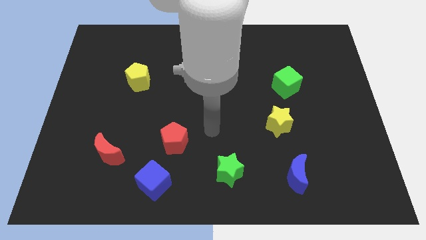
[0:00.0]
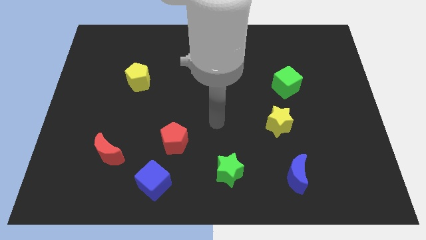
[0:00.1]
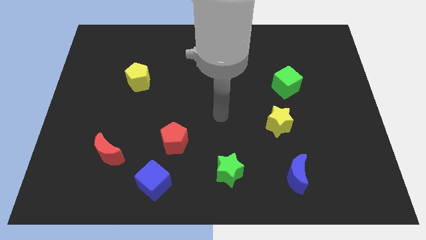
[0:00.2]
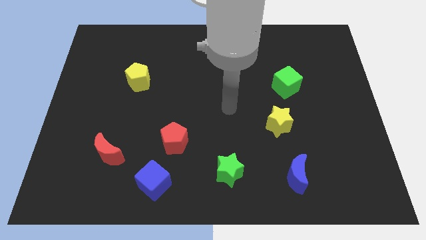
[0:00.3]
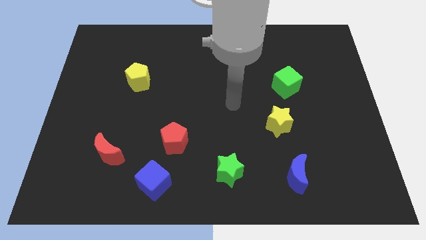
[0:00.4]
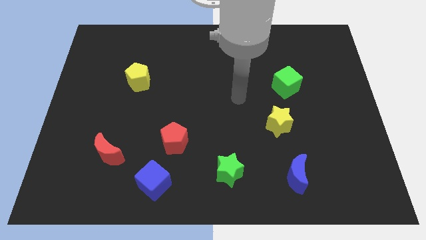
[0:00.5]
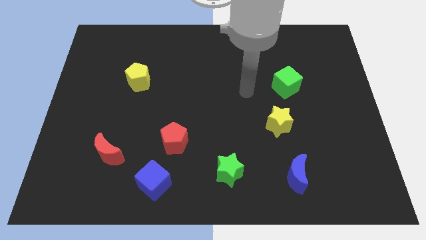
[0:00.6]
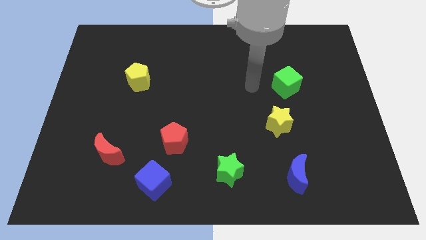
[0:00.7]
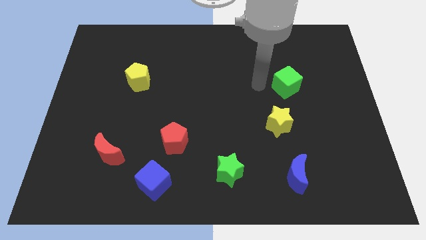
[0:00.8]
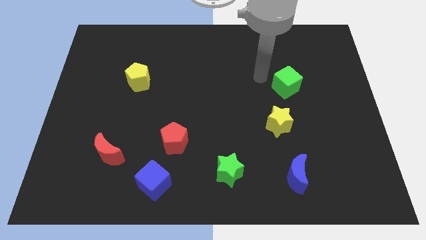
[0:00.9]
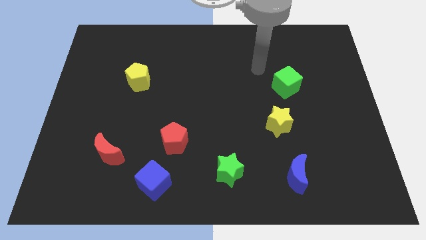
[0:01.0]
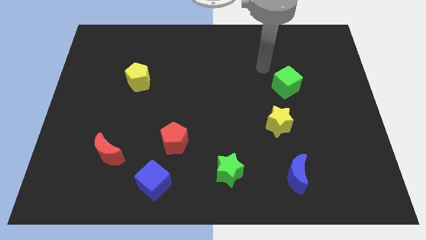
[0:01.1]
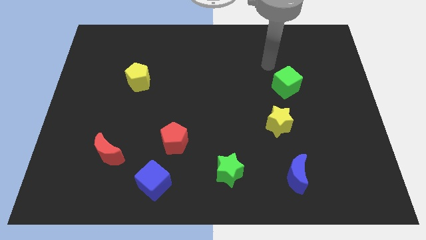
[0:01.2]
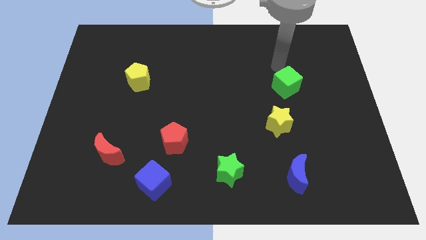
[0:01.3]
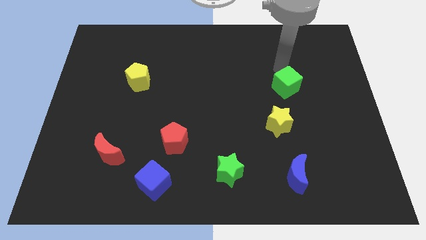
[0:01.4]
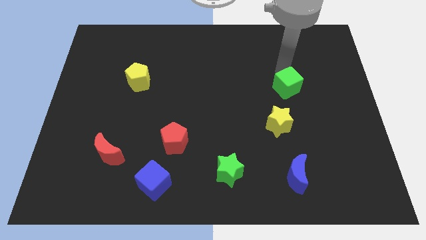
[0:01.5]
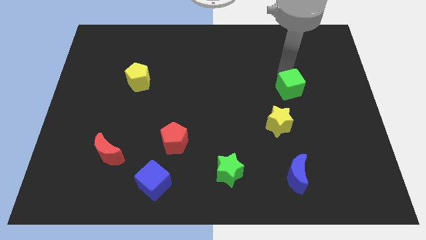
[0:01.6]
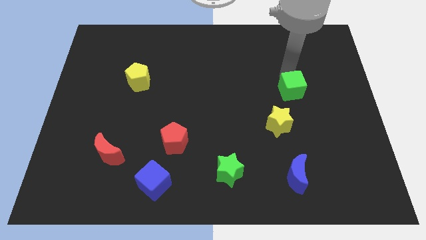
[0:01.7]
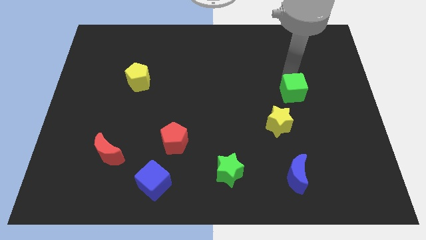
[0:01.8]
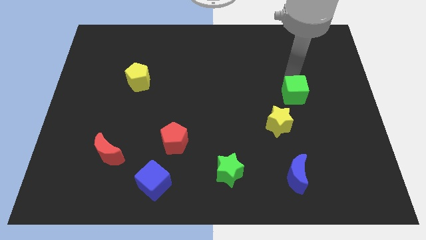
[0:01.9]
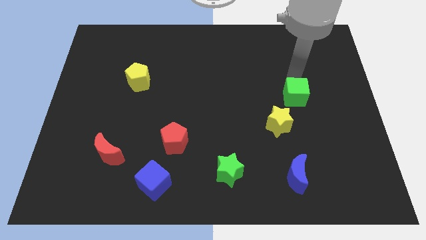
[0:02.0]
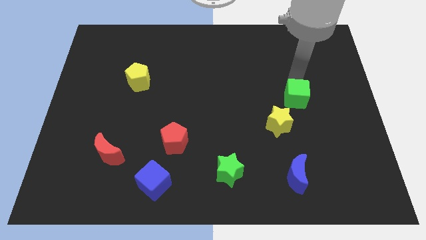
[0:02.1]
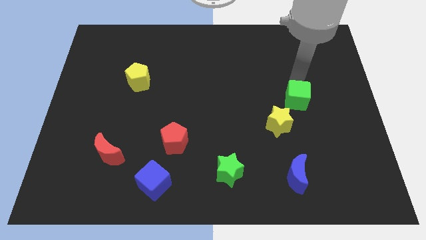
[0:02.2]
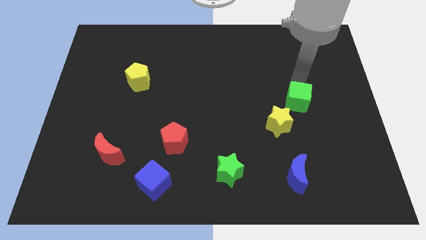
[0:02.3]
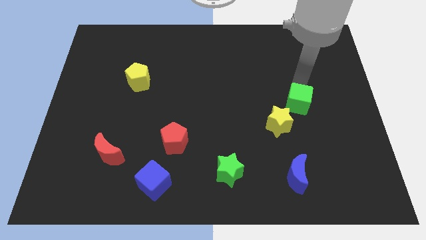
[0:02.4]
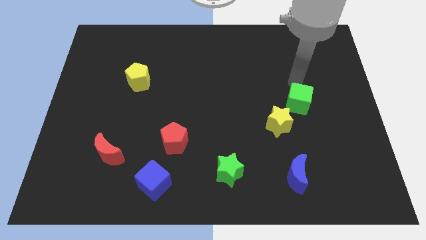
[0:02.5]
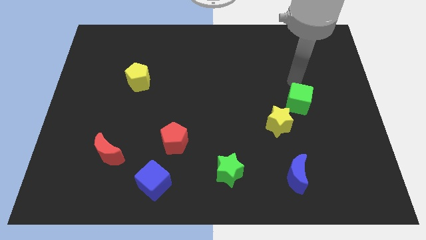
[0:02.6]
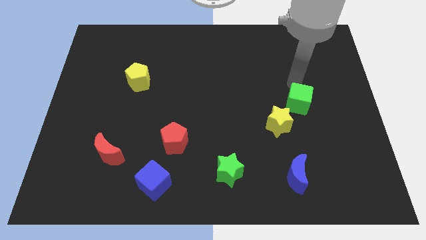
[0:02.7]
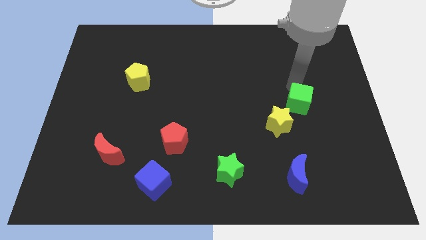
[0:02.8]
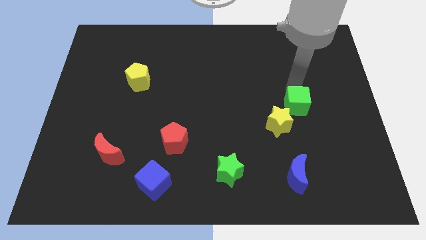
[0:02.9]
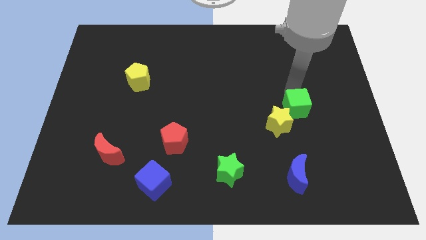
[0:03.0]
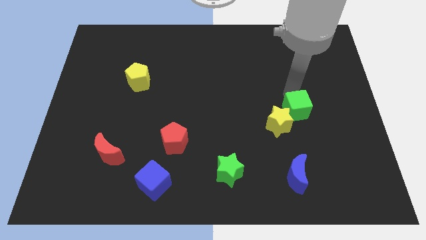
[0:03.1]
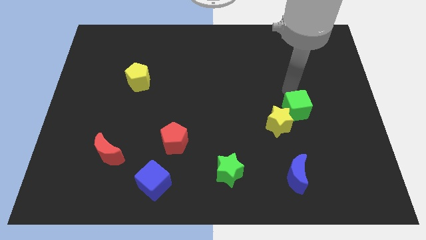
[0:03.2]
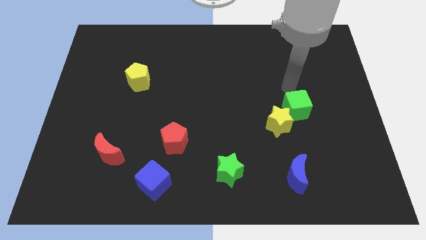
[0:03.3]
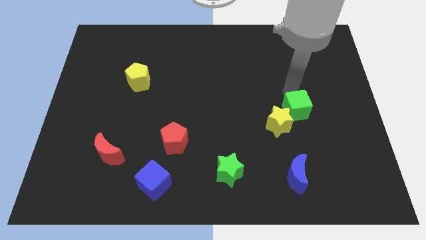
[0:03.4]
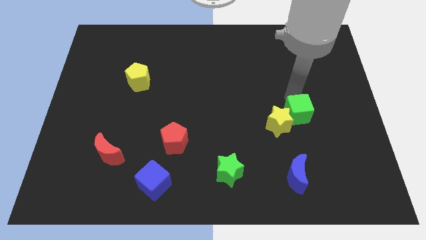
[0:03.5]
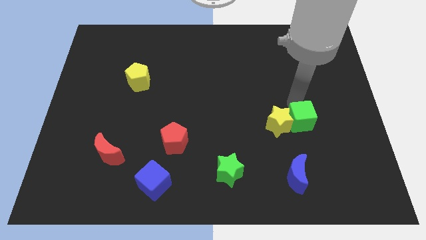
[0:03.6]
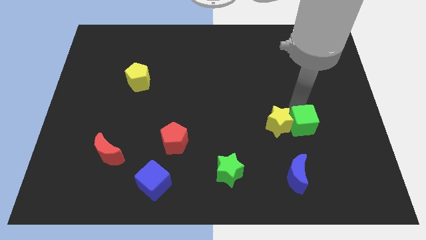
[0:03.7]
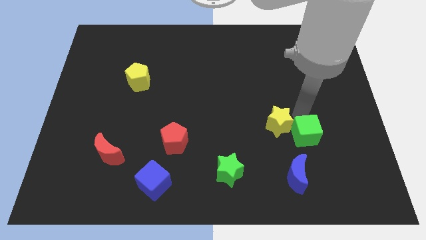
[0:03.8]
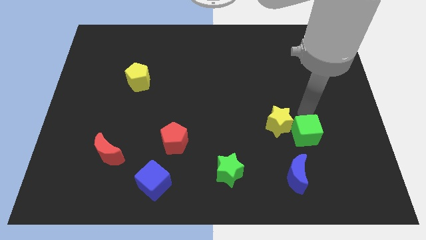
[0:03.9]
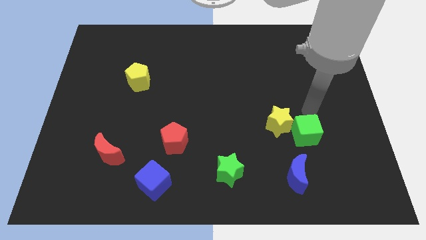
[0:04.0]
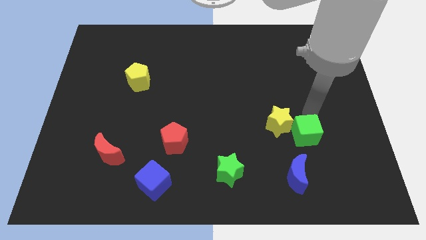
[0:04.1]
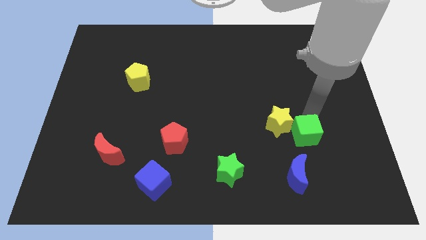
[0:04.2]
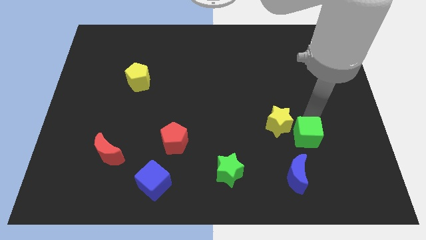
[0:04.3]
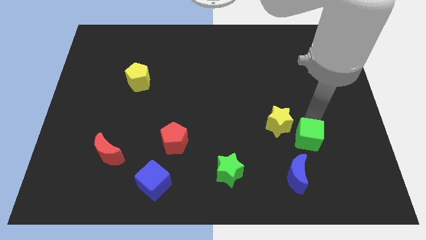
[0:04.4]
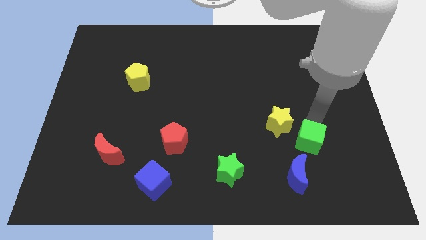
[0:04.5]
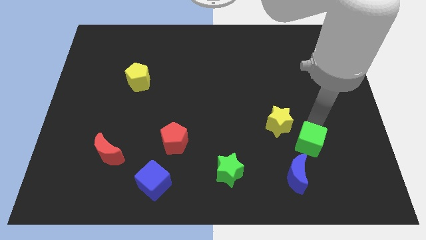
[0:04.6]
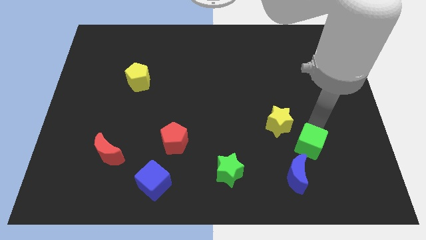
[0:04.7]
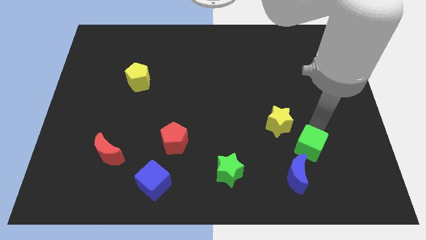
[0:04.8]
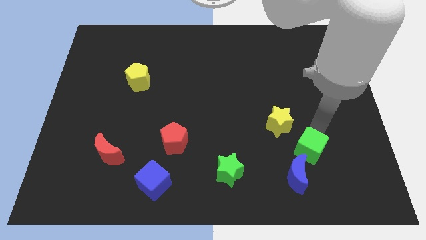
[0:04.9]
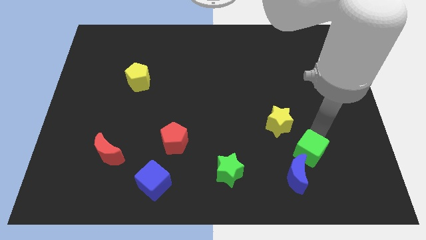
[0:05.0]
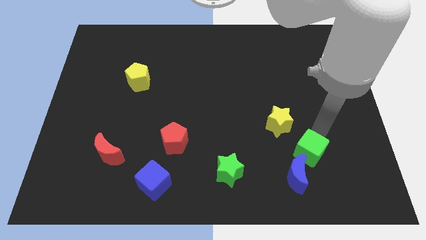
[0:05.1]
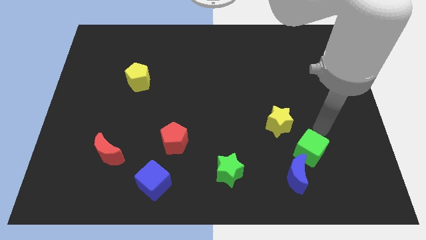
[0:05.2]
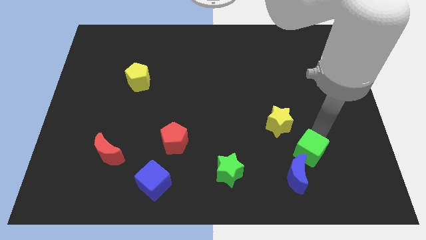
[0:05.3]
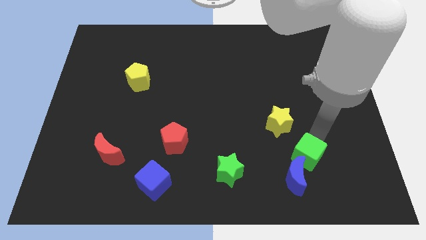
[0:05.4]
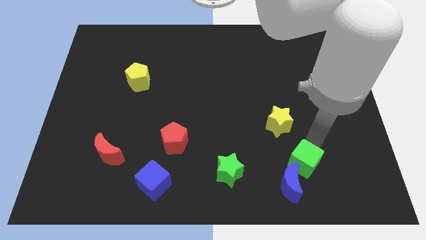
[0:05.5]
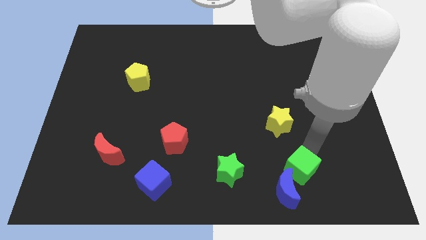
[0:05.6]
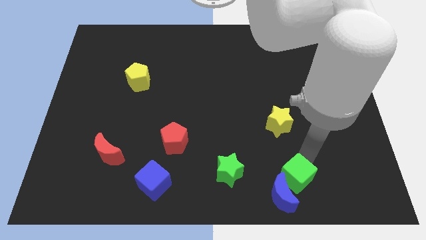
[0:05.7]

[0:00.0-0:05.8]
move the green cube close to the blue moon

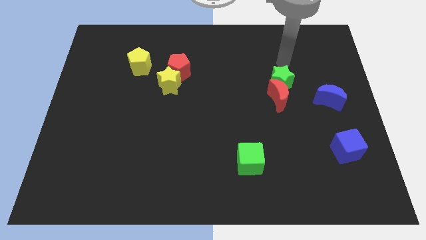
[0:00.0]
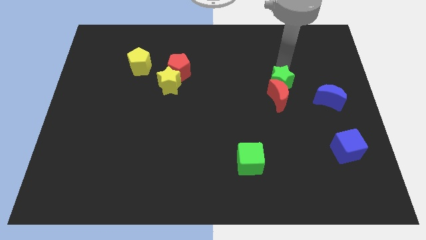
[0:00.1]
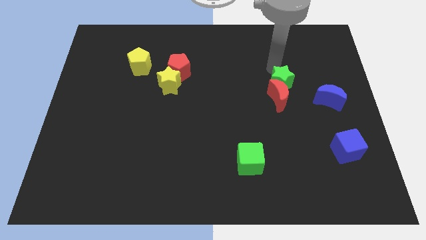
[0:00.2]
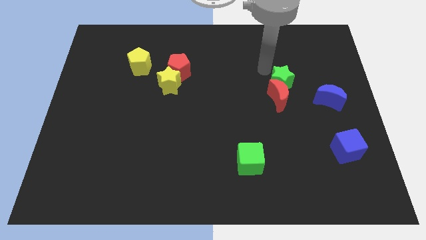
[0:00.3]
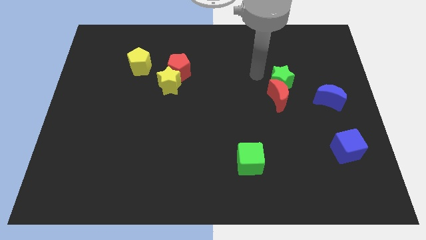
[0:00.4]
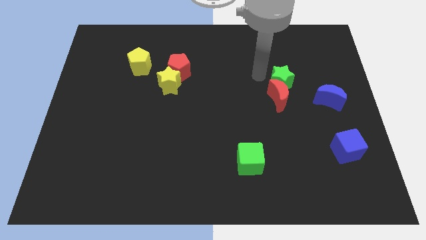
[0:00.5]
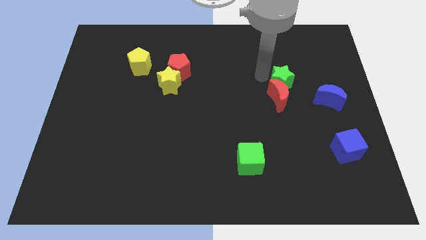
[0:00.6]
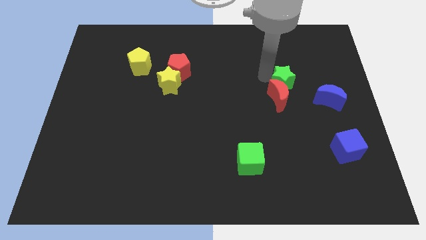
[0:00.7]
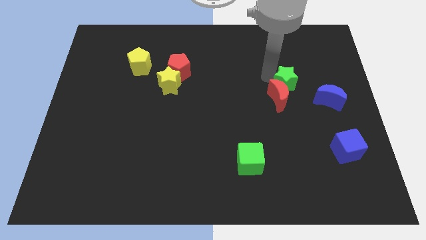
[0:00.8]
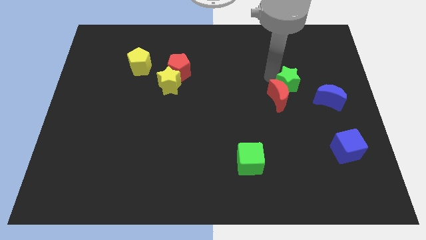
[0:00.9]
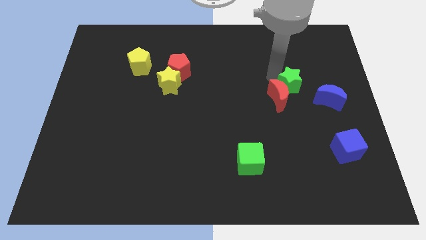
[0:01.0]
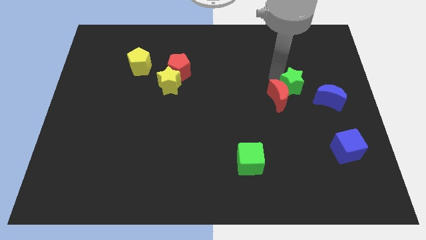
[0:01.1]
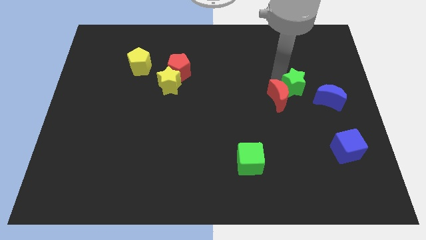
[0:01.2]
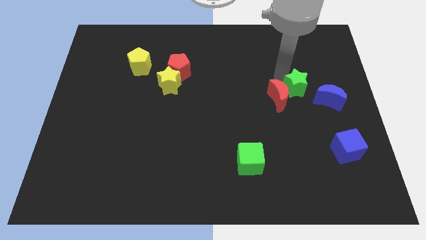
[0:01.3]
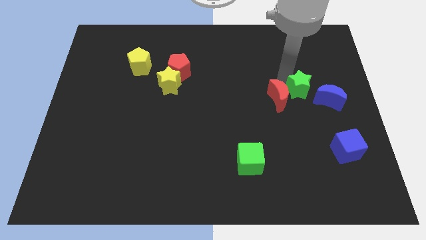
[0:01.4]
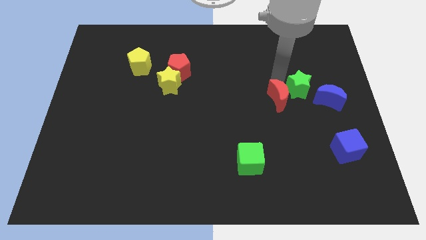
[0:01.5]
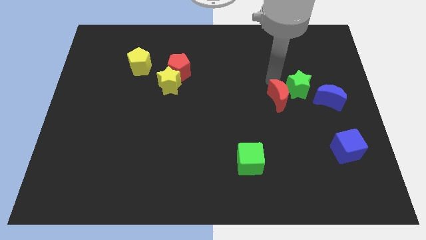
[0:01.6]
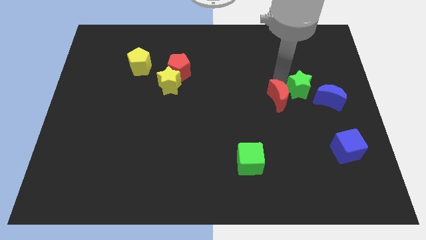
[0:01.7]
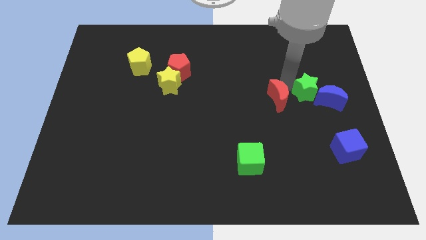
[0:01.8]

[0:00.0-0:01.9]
move the green star to the blue moon
